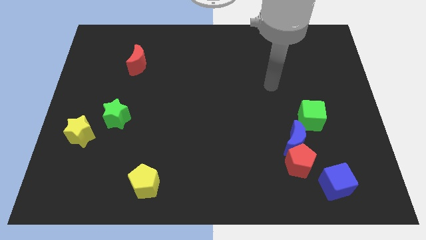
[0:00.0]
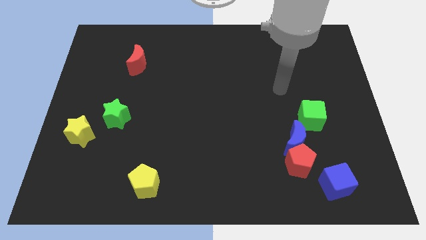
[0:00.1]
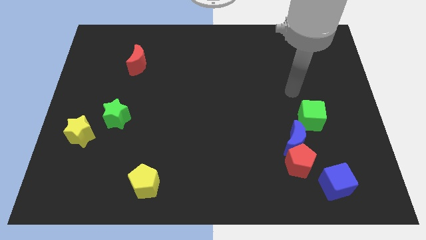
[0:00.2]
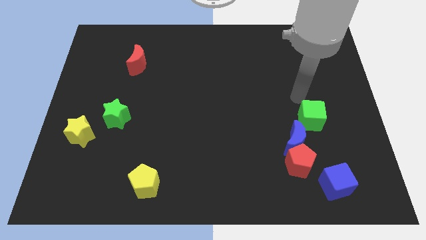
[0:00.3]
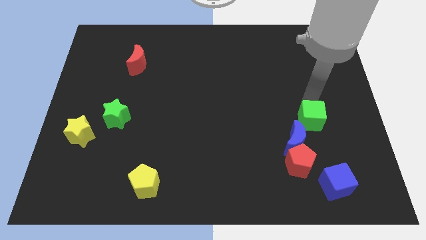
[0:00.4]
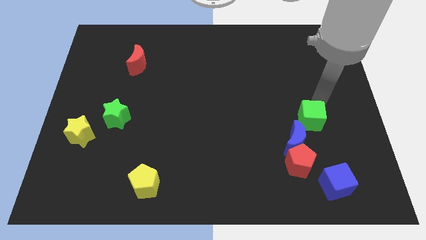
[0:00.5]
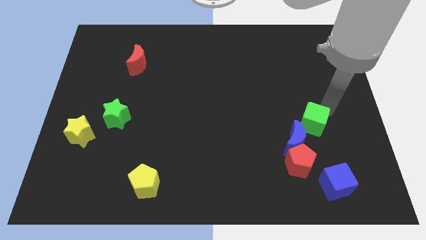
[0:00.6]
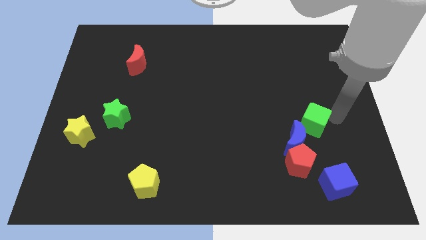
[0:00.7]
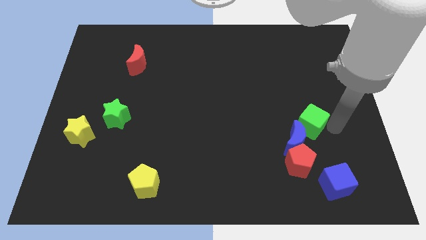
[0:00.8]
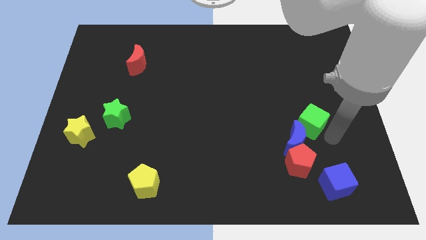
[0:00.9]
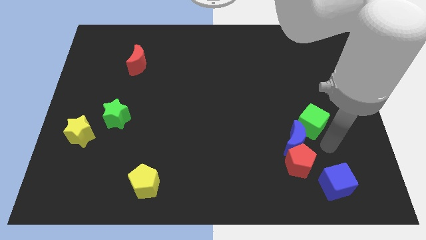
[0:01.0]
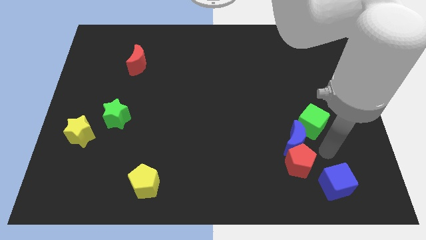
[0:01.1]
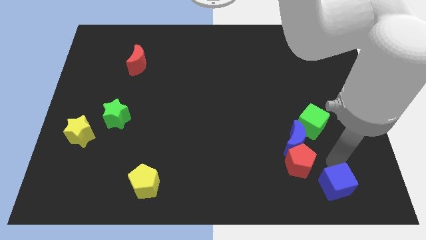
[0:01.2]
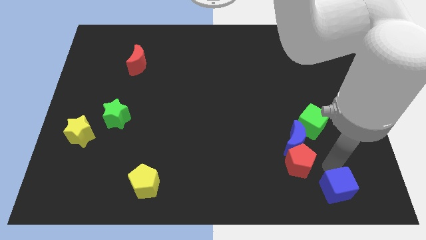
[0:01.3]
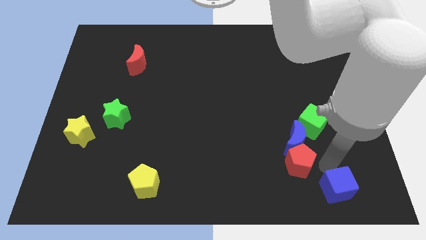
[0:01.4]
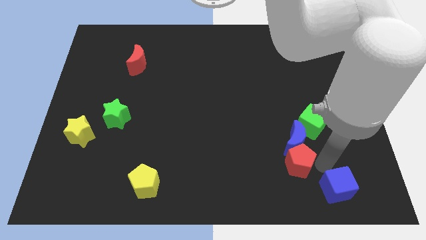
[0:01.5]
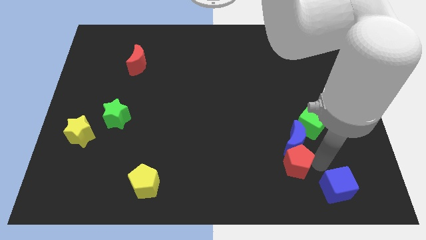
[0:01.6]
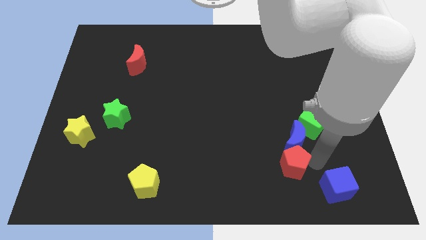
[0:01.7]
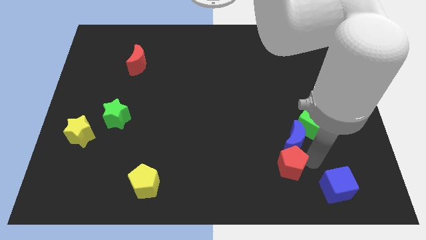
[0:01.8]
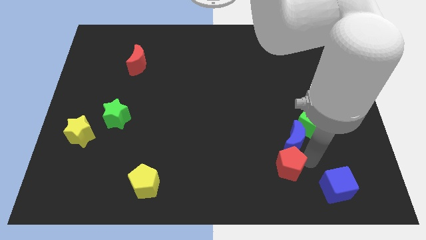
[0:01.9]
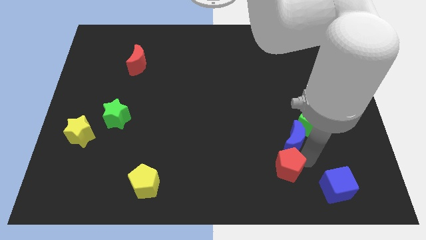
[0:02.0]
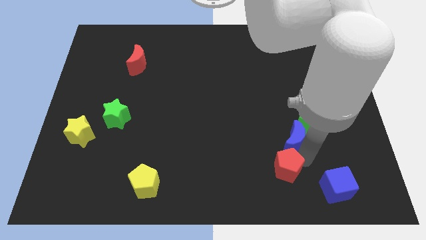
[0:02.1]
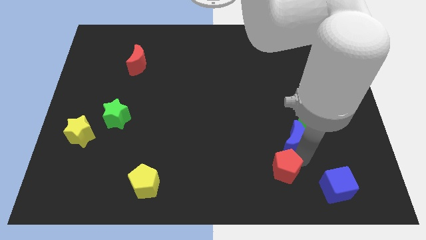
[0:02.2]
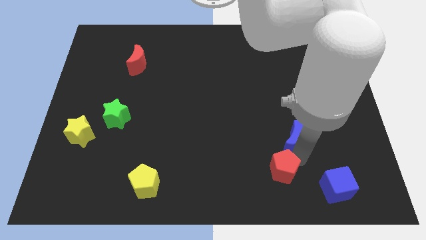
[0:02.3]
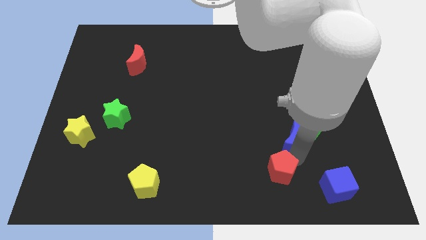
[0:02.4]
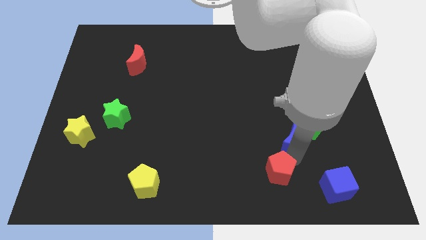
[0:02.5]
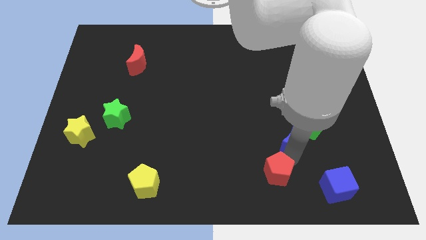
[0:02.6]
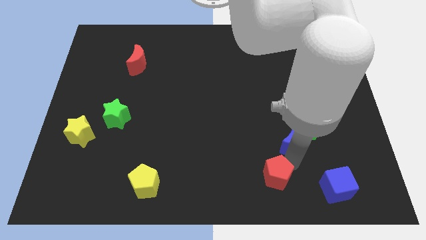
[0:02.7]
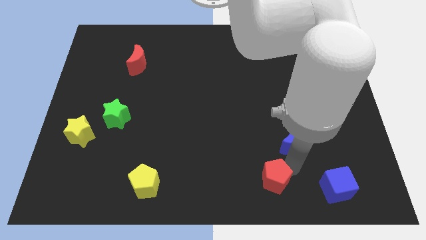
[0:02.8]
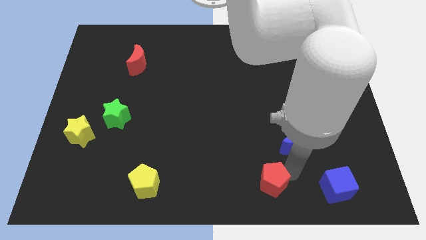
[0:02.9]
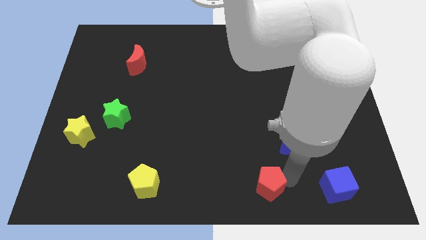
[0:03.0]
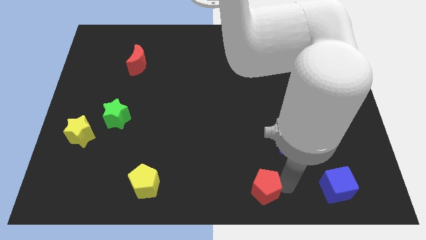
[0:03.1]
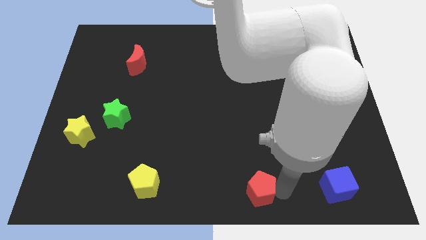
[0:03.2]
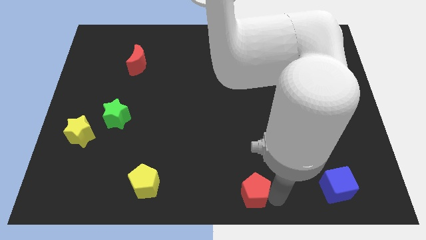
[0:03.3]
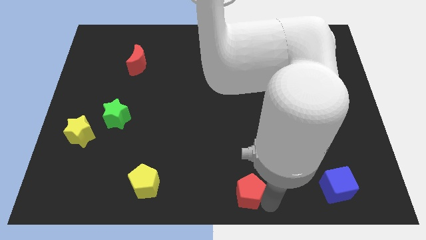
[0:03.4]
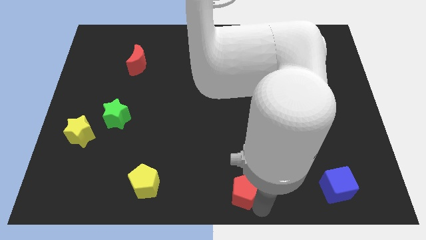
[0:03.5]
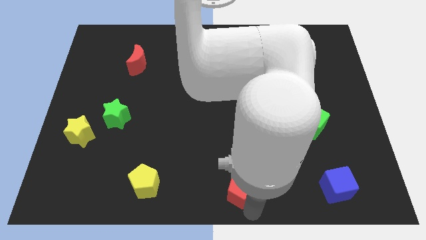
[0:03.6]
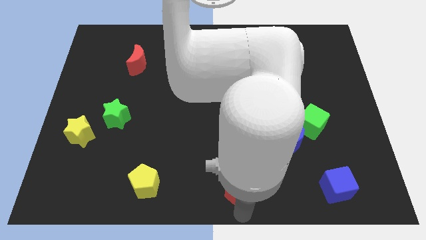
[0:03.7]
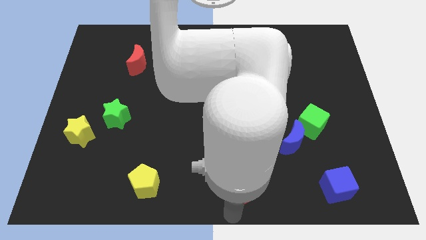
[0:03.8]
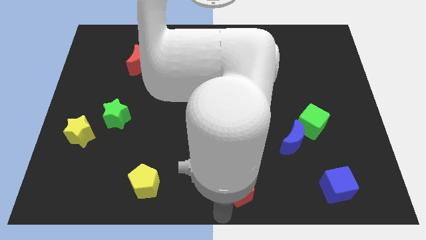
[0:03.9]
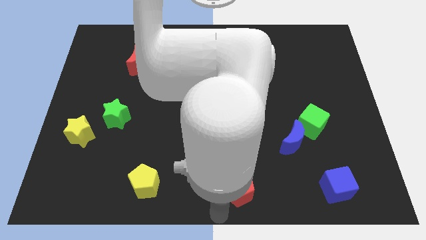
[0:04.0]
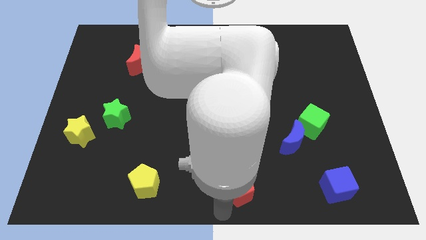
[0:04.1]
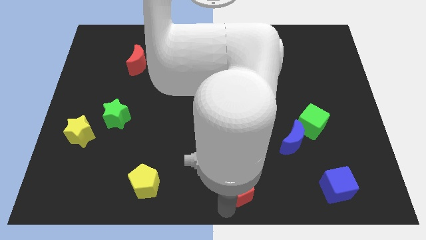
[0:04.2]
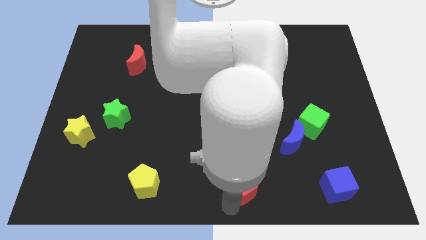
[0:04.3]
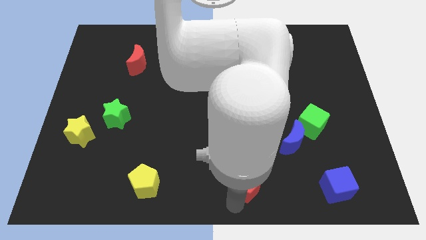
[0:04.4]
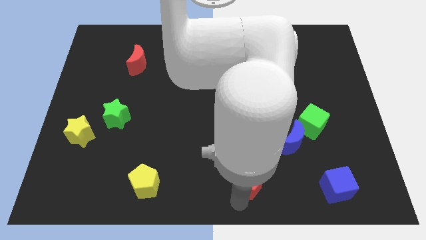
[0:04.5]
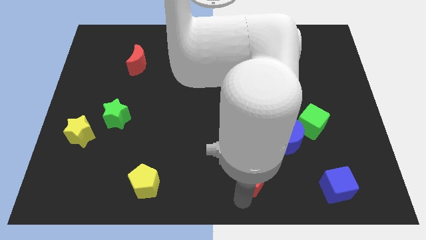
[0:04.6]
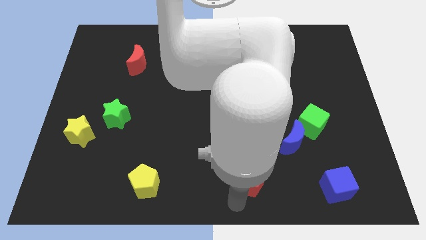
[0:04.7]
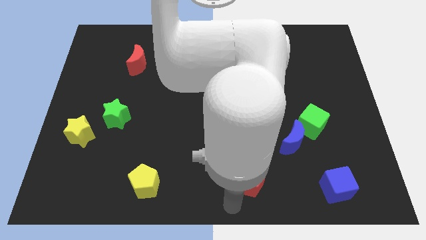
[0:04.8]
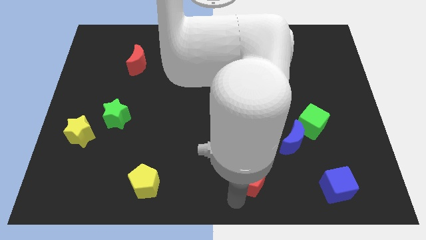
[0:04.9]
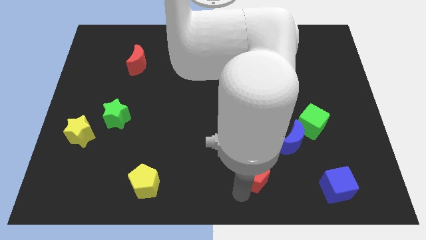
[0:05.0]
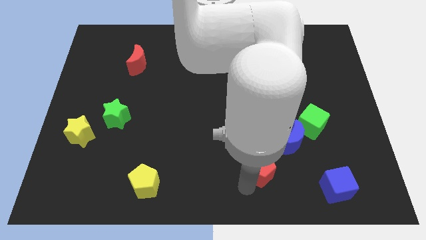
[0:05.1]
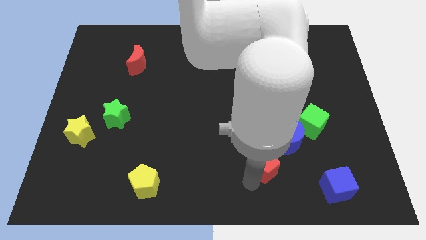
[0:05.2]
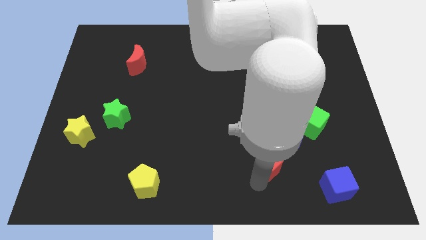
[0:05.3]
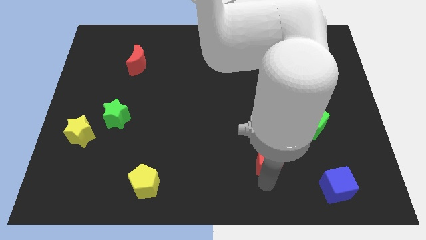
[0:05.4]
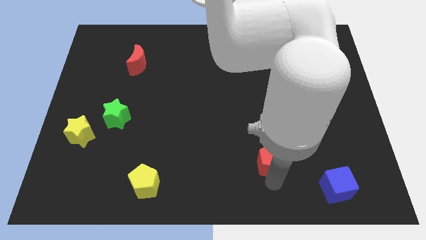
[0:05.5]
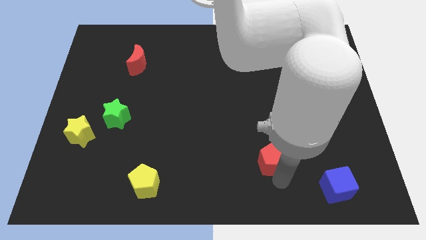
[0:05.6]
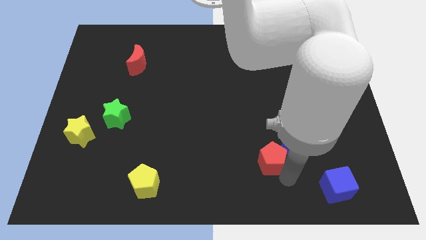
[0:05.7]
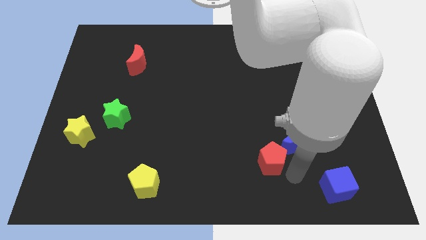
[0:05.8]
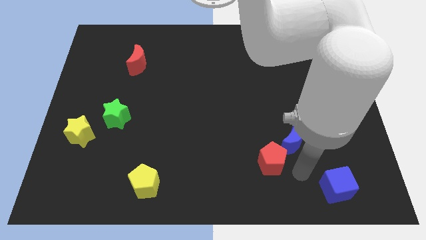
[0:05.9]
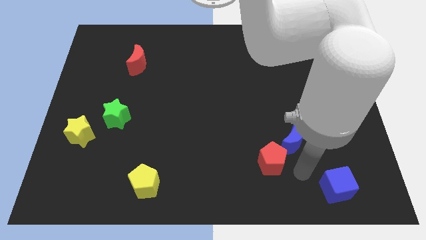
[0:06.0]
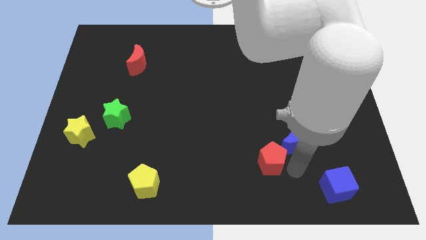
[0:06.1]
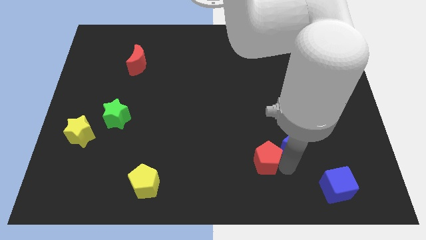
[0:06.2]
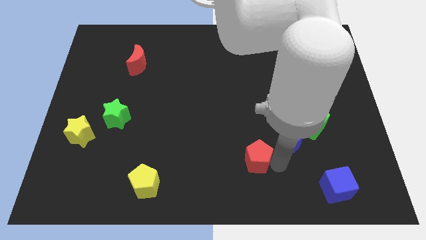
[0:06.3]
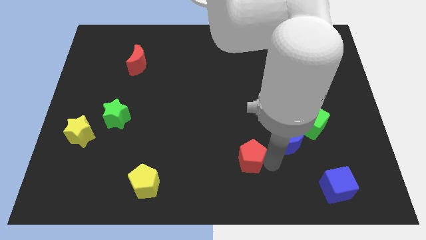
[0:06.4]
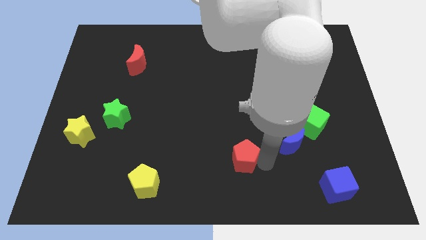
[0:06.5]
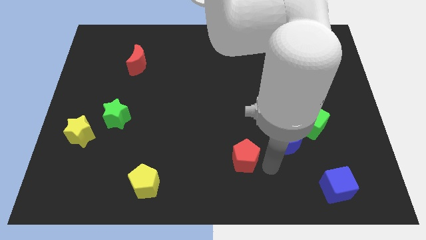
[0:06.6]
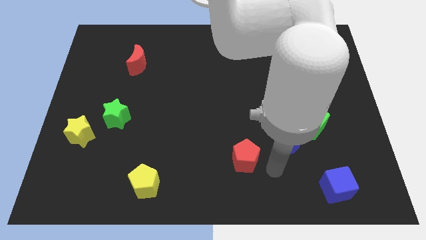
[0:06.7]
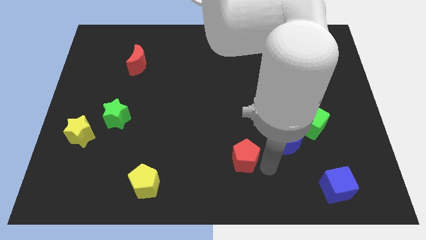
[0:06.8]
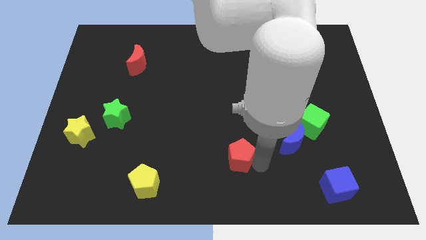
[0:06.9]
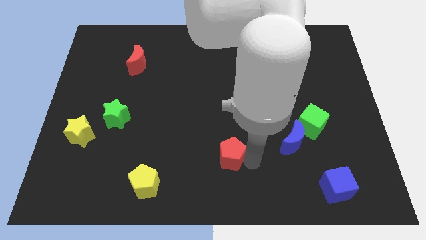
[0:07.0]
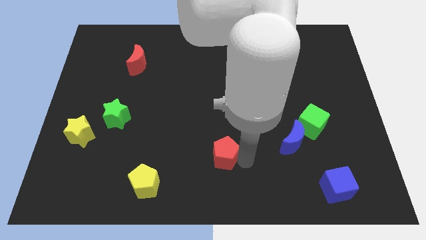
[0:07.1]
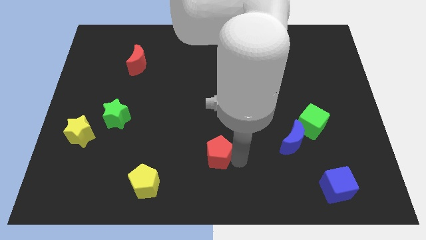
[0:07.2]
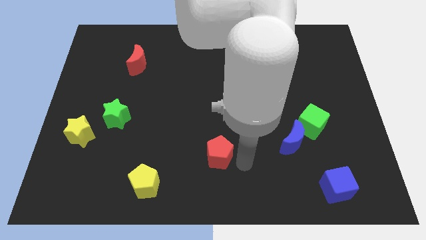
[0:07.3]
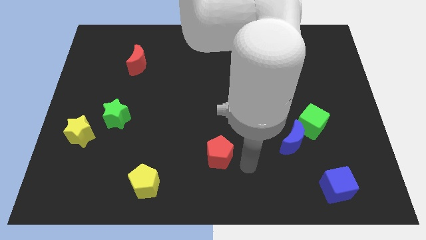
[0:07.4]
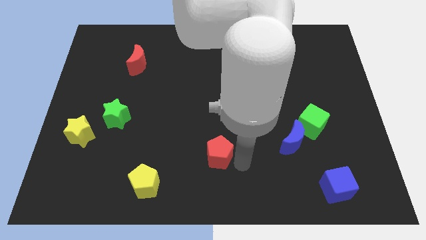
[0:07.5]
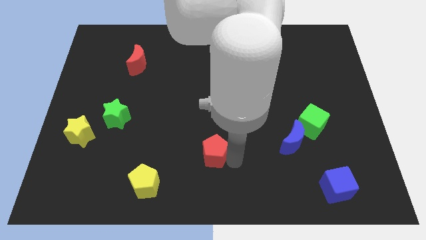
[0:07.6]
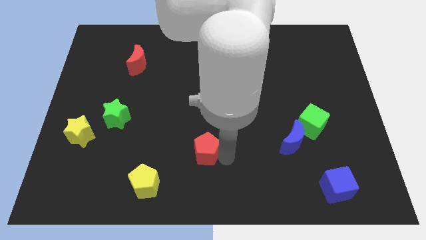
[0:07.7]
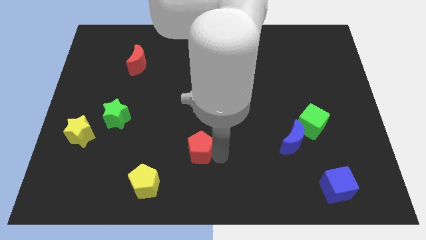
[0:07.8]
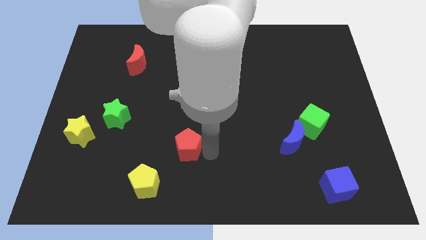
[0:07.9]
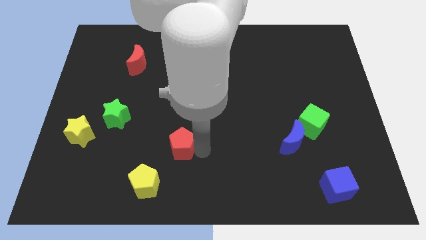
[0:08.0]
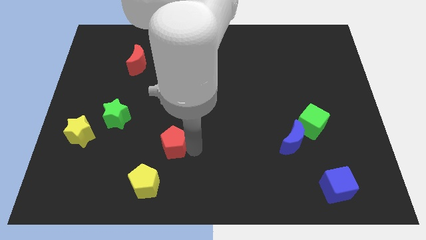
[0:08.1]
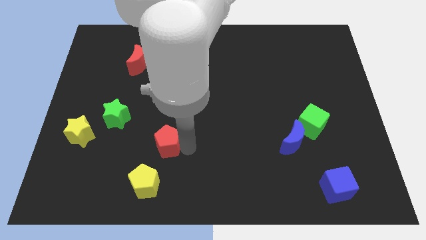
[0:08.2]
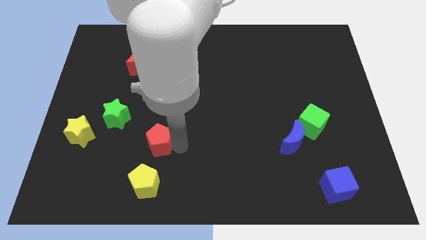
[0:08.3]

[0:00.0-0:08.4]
move the red pentagon to the bottom right of the green star
